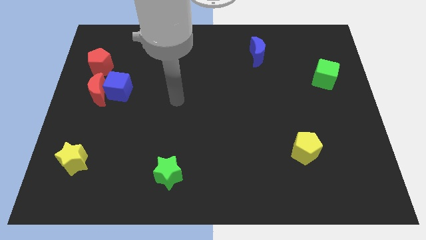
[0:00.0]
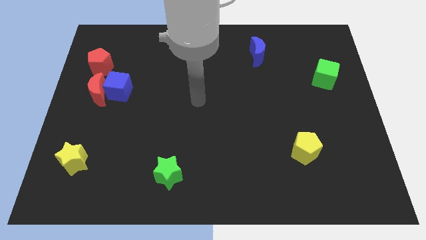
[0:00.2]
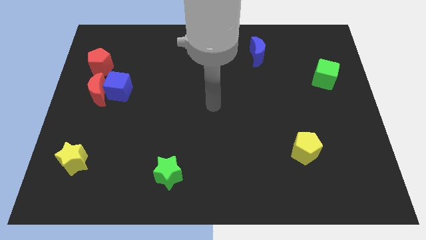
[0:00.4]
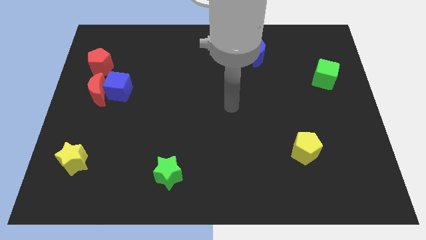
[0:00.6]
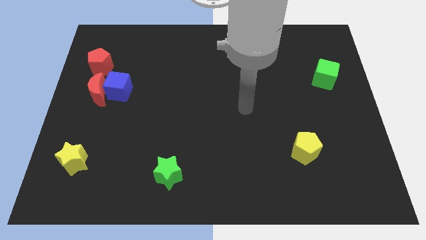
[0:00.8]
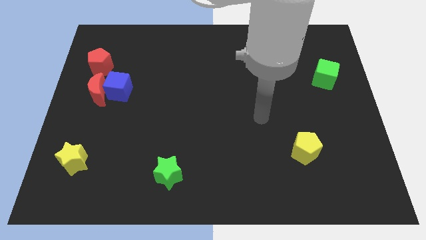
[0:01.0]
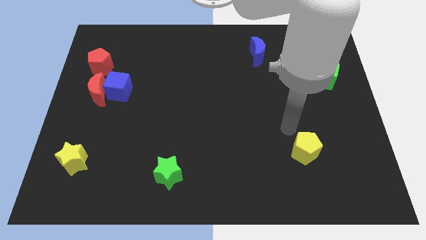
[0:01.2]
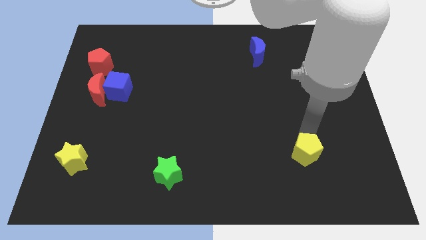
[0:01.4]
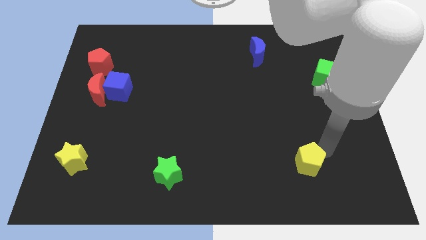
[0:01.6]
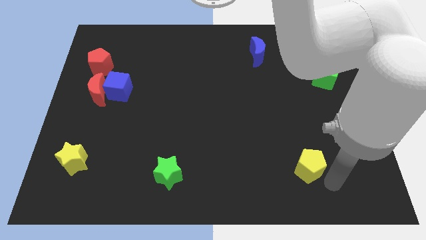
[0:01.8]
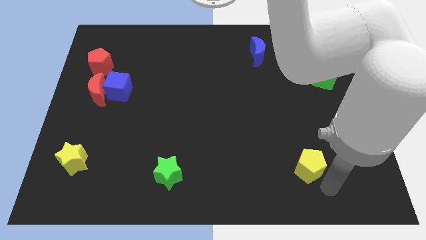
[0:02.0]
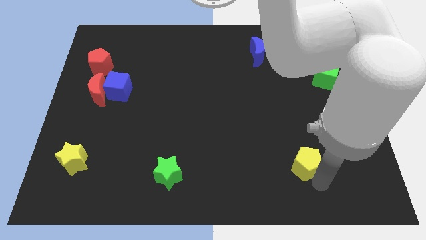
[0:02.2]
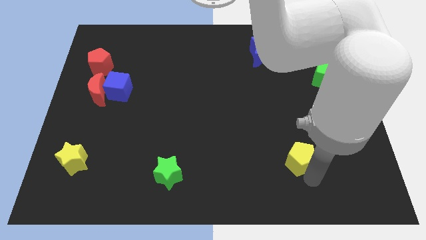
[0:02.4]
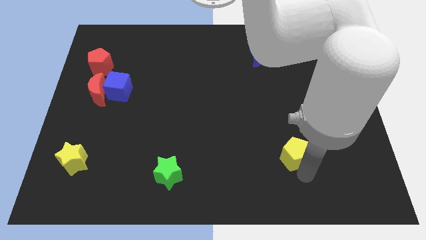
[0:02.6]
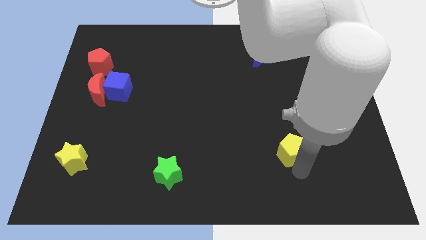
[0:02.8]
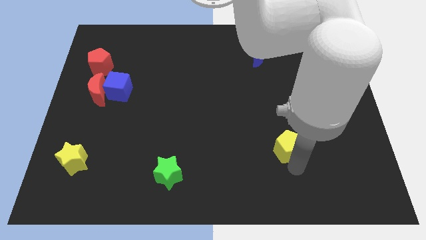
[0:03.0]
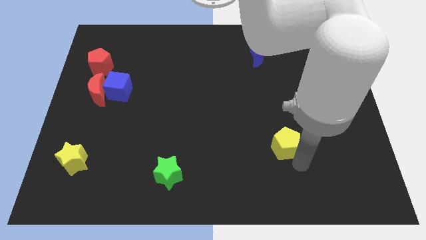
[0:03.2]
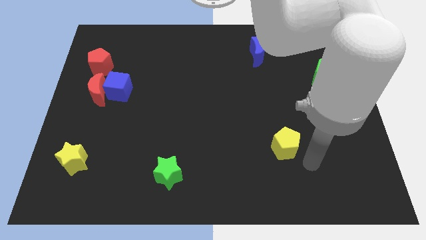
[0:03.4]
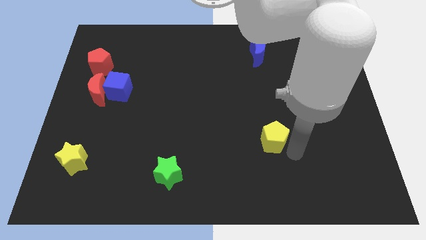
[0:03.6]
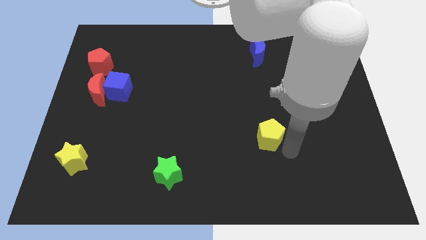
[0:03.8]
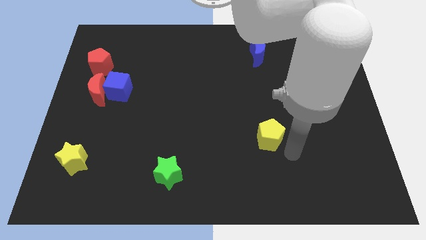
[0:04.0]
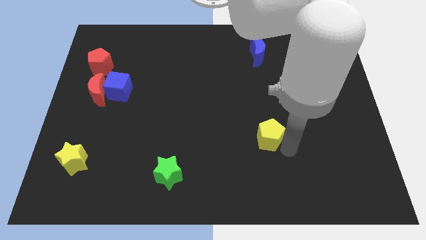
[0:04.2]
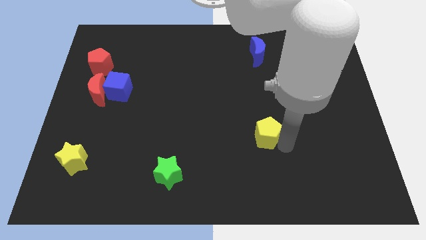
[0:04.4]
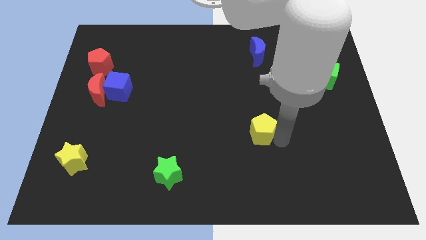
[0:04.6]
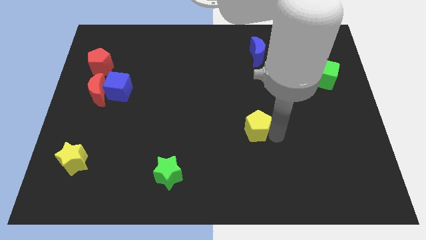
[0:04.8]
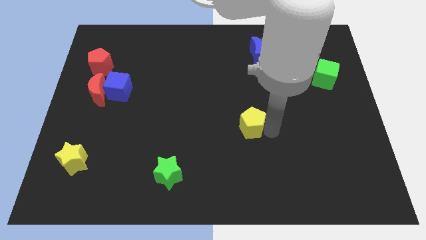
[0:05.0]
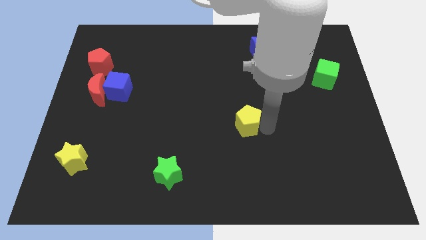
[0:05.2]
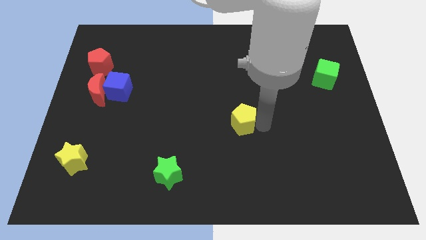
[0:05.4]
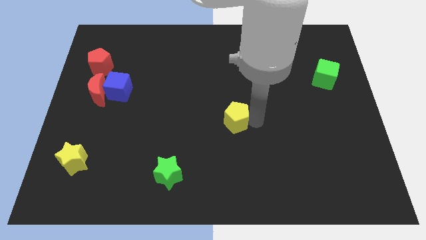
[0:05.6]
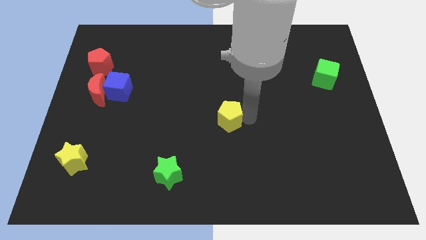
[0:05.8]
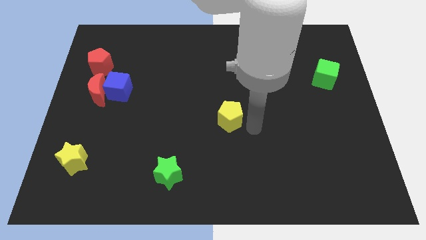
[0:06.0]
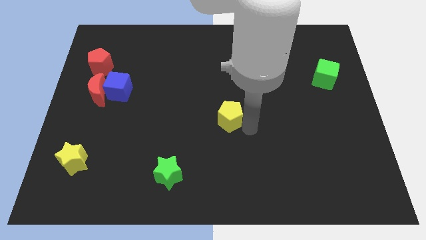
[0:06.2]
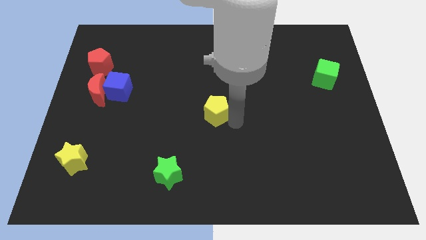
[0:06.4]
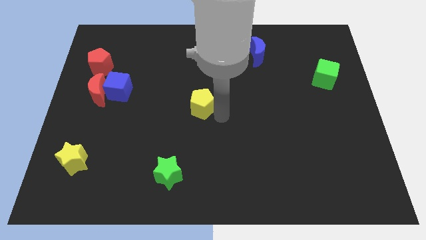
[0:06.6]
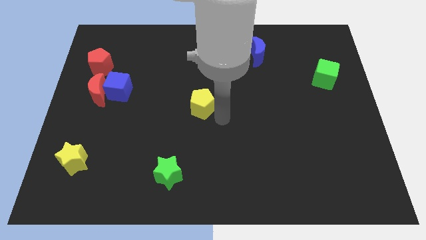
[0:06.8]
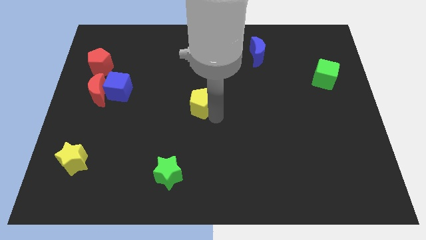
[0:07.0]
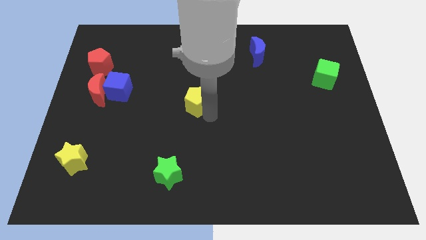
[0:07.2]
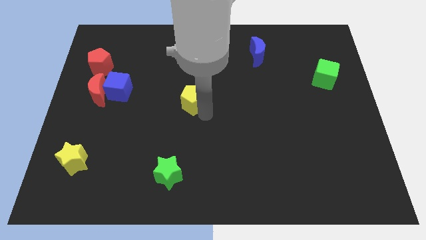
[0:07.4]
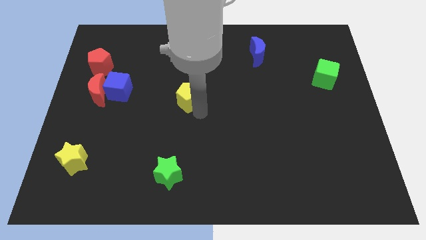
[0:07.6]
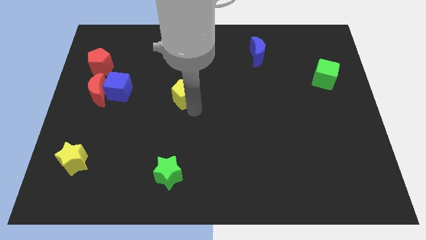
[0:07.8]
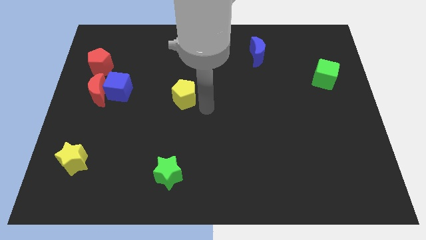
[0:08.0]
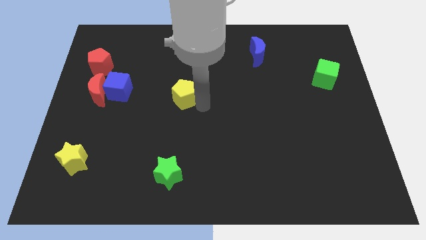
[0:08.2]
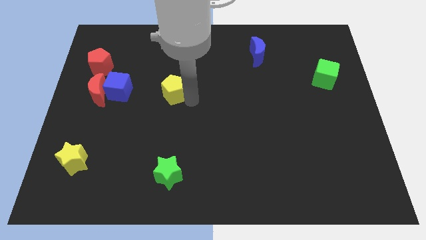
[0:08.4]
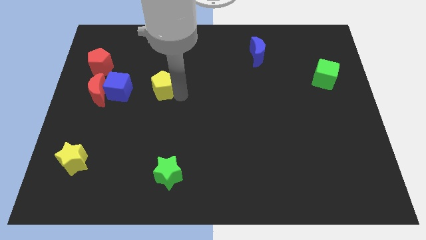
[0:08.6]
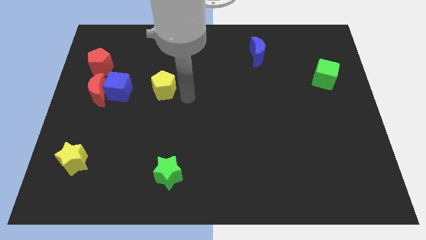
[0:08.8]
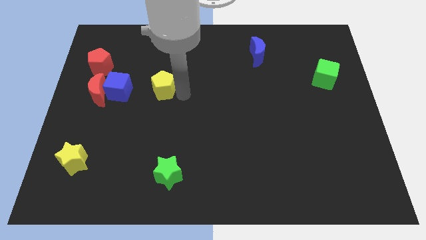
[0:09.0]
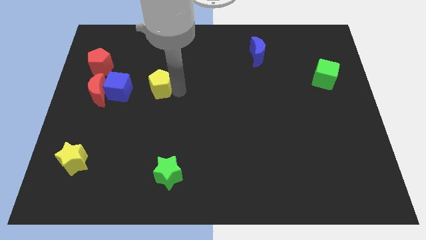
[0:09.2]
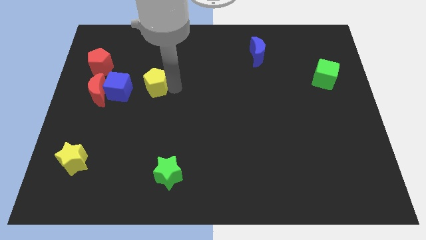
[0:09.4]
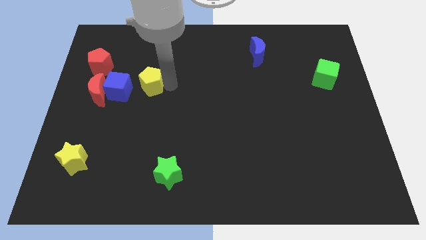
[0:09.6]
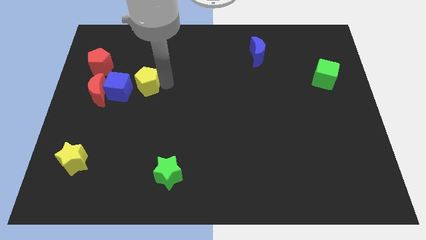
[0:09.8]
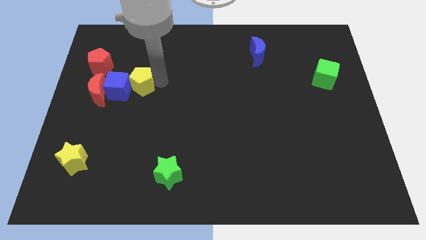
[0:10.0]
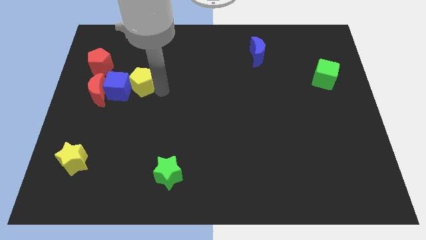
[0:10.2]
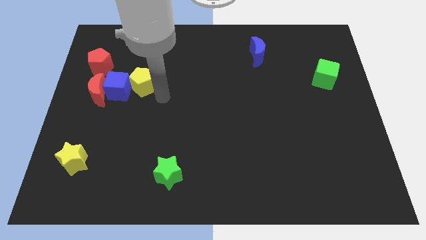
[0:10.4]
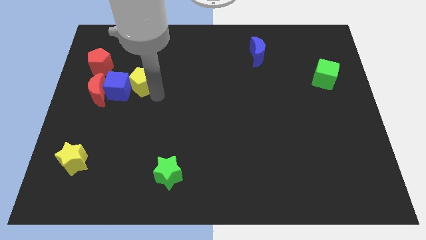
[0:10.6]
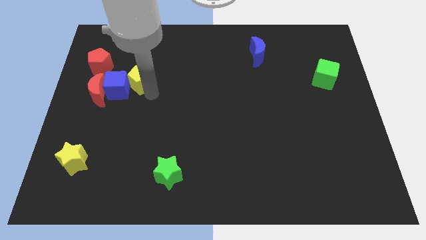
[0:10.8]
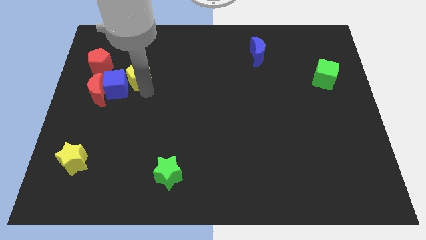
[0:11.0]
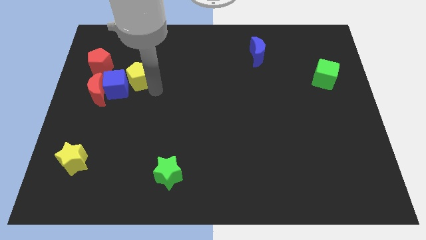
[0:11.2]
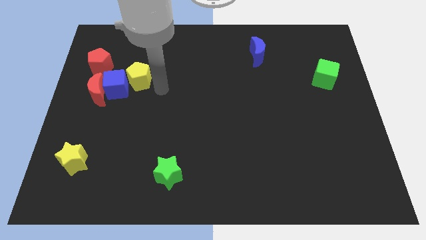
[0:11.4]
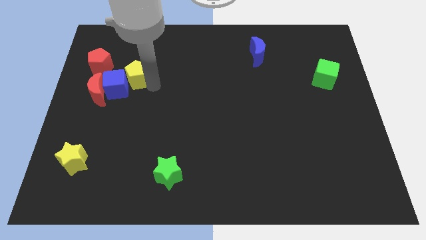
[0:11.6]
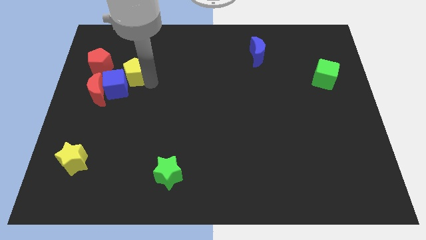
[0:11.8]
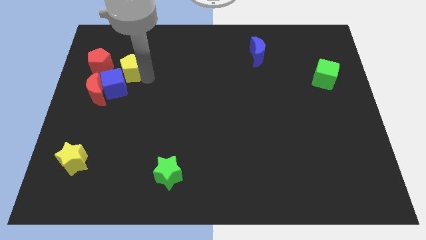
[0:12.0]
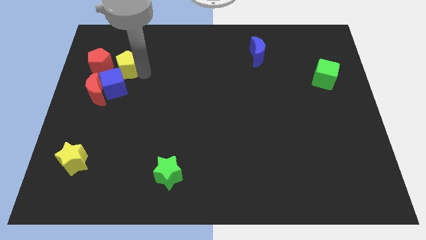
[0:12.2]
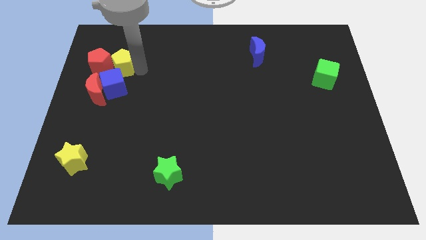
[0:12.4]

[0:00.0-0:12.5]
slide the yellow pentagon to the red pentagon

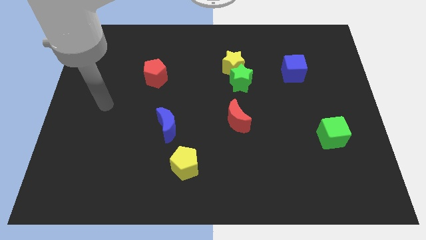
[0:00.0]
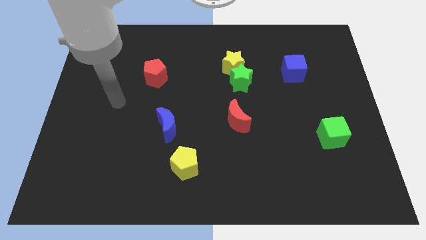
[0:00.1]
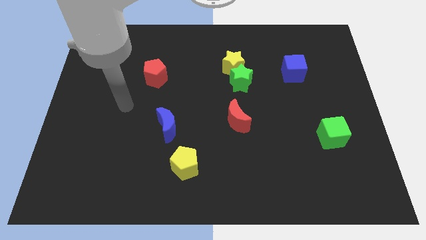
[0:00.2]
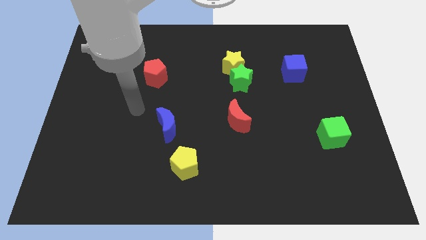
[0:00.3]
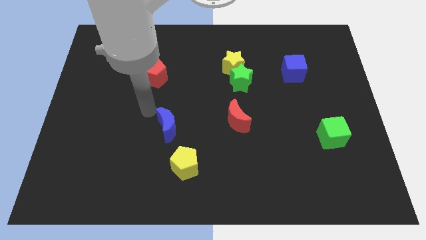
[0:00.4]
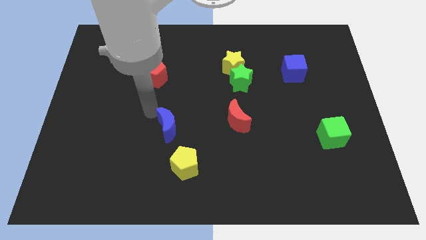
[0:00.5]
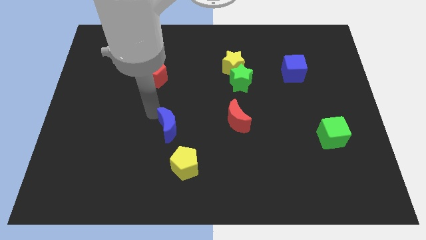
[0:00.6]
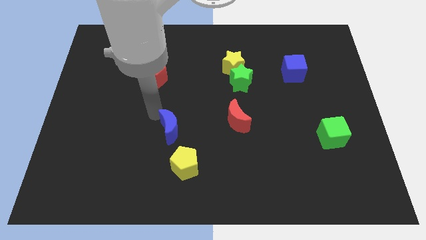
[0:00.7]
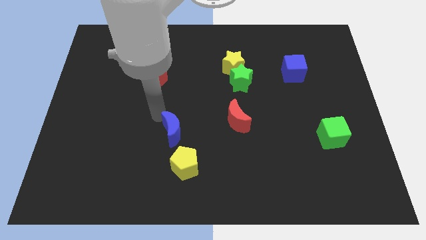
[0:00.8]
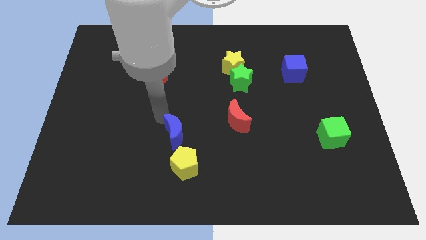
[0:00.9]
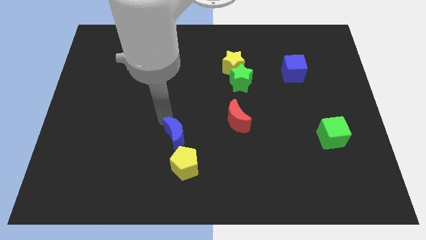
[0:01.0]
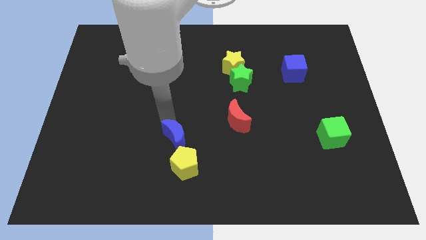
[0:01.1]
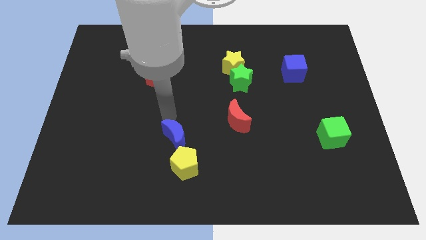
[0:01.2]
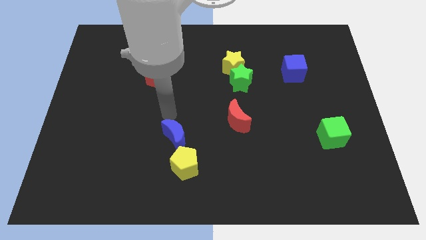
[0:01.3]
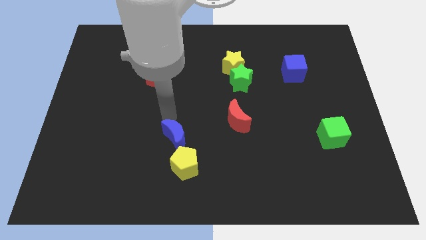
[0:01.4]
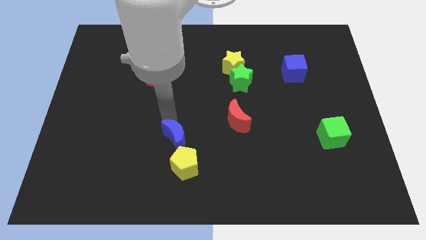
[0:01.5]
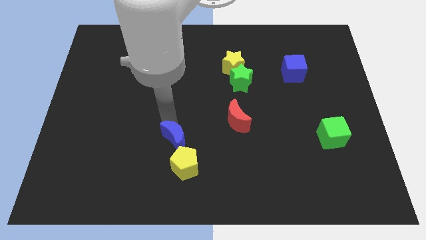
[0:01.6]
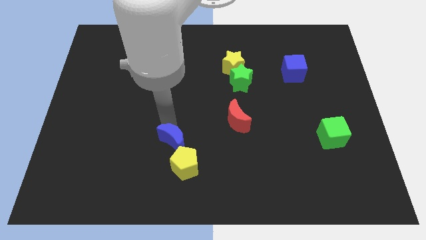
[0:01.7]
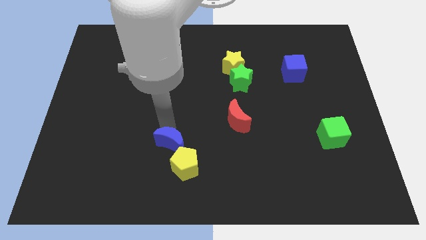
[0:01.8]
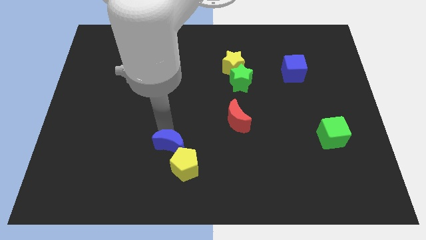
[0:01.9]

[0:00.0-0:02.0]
move the blue moon to the yellow pentagon
